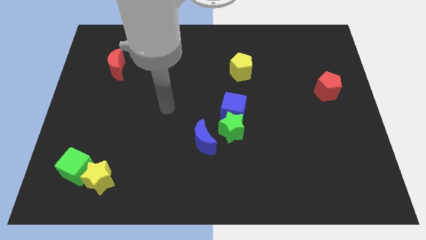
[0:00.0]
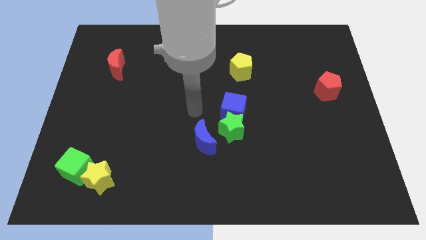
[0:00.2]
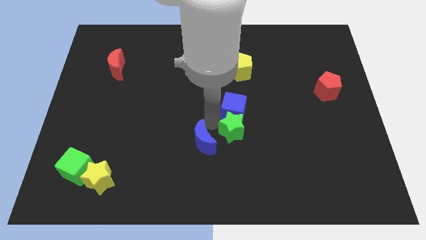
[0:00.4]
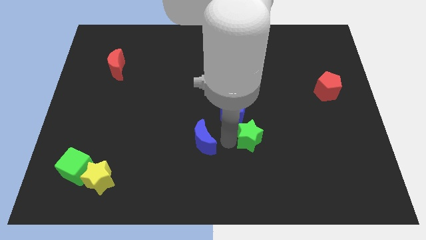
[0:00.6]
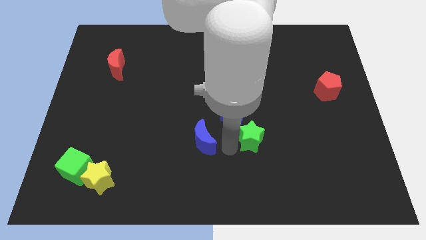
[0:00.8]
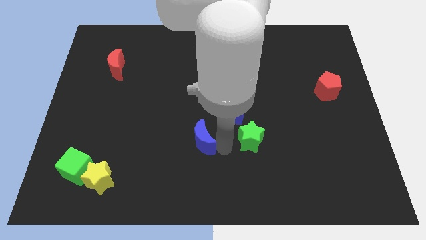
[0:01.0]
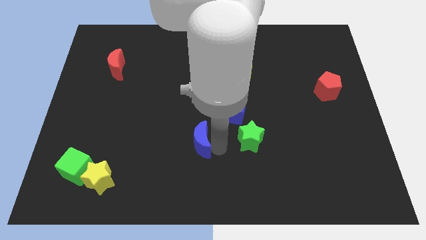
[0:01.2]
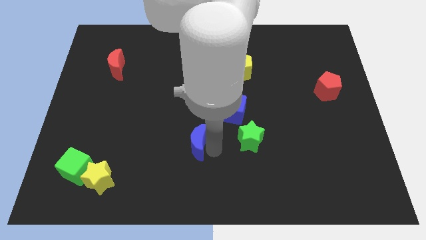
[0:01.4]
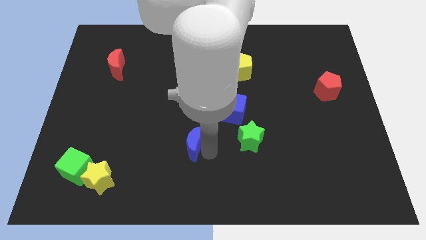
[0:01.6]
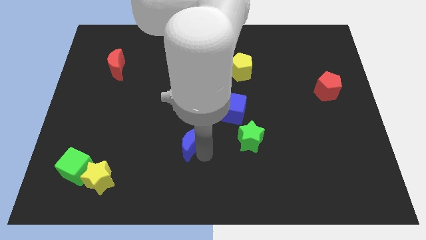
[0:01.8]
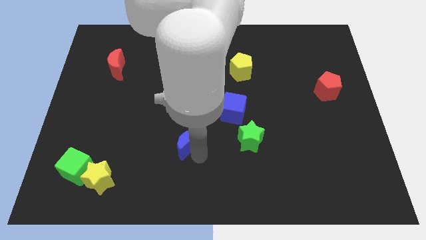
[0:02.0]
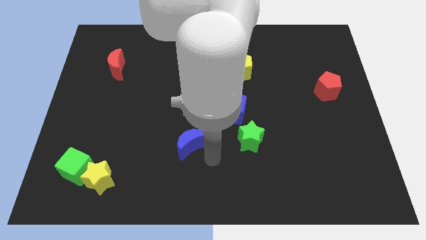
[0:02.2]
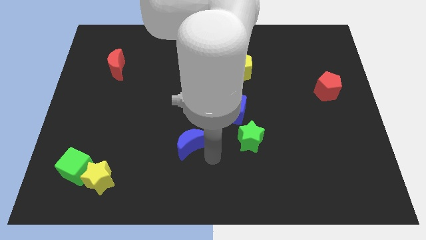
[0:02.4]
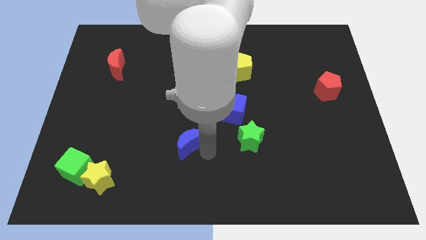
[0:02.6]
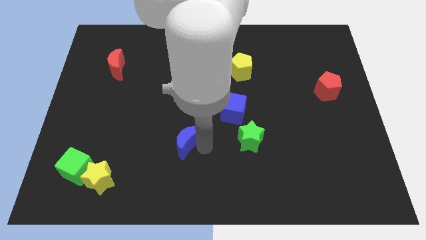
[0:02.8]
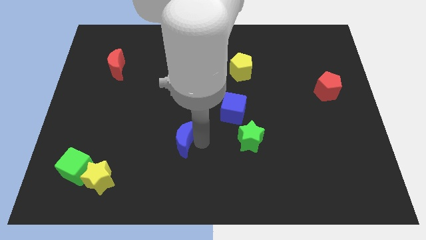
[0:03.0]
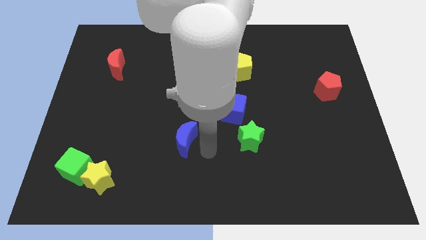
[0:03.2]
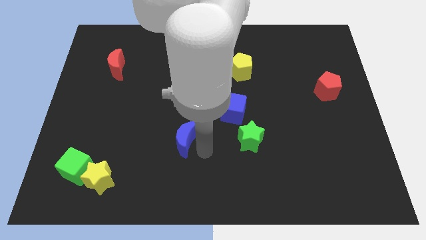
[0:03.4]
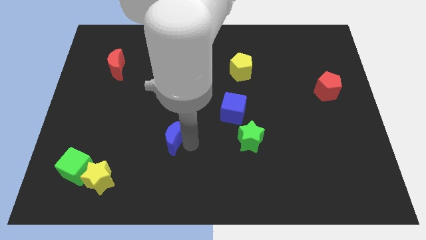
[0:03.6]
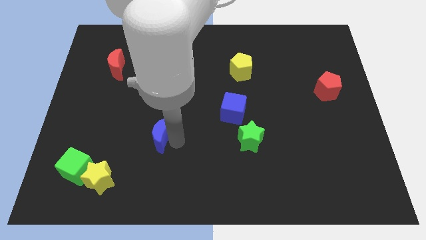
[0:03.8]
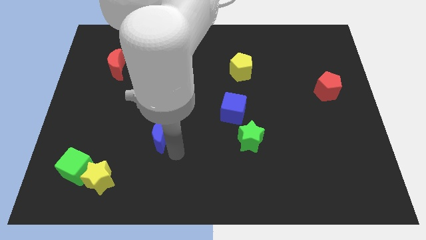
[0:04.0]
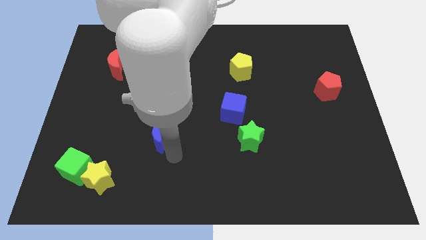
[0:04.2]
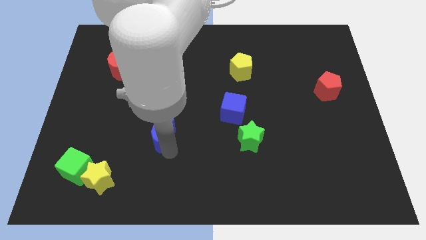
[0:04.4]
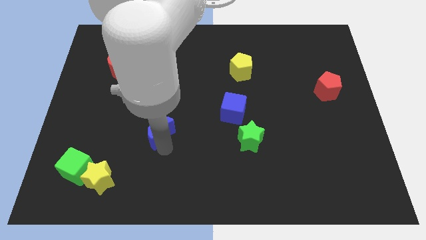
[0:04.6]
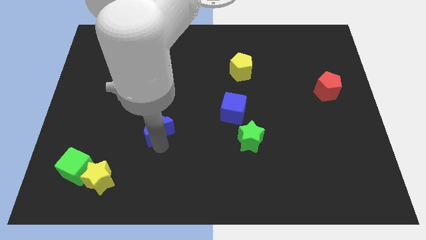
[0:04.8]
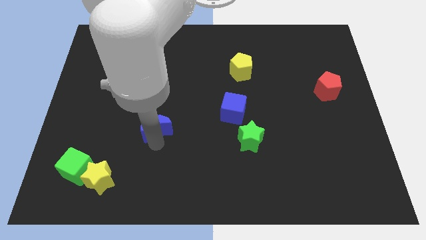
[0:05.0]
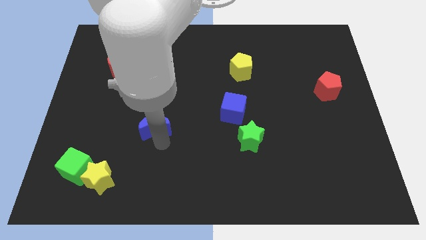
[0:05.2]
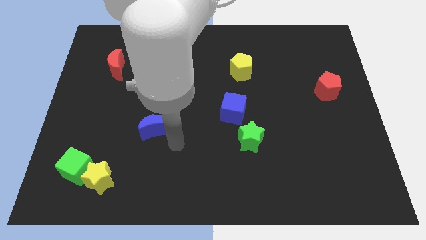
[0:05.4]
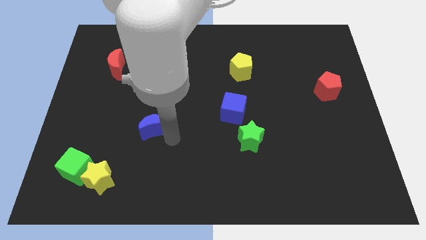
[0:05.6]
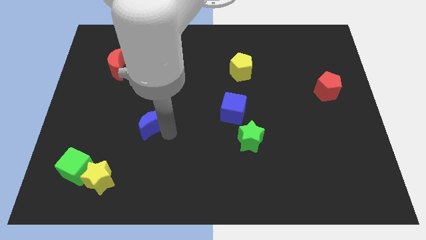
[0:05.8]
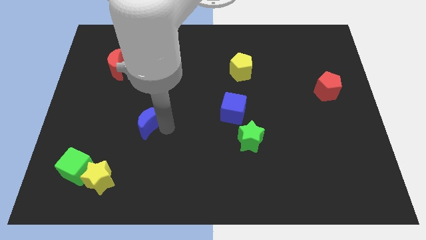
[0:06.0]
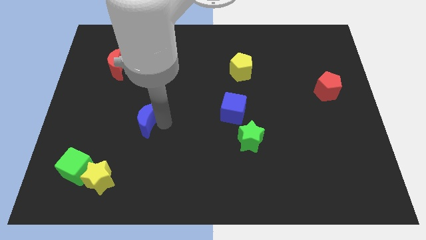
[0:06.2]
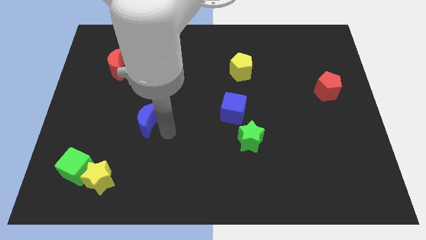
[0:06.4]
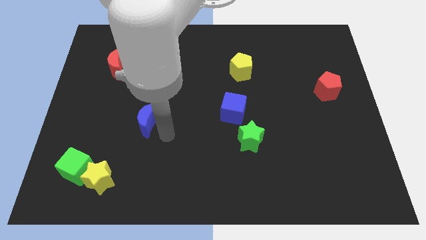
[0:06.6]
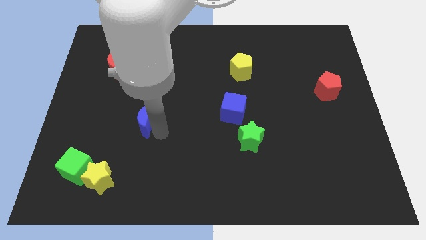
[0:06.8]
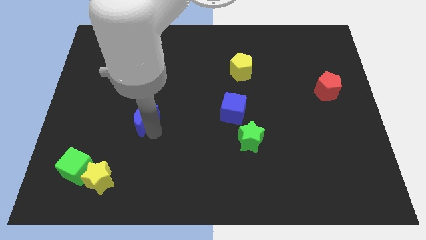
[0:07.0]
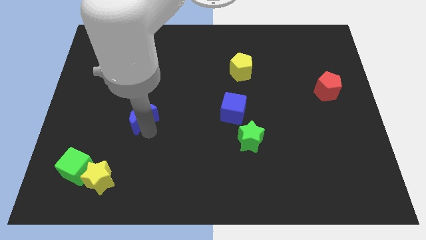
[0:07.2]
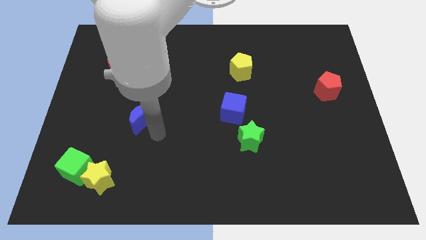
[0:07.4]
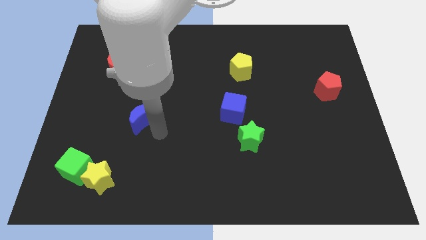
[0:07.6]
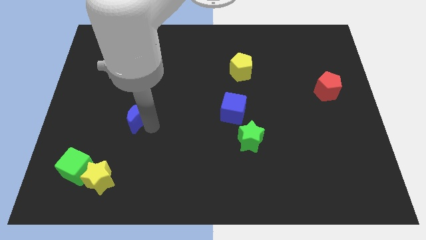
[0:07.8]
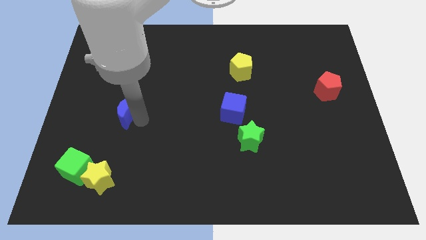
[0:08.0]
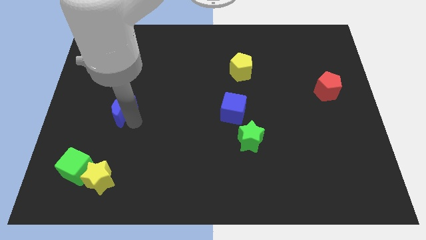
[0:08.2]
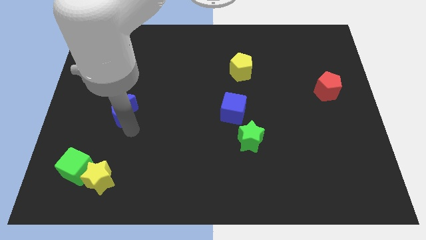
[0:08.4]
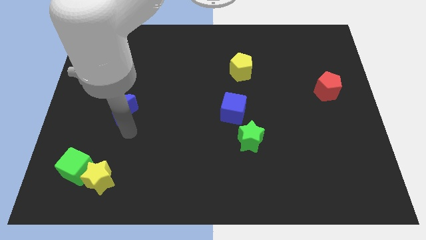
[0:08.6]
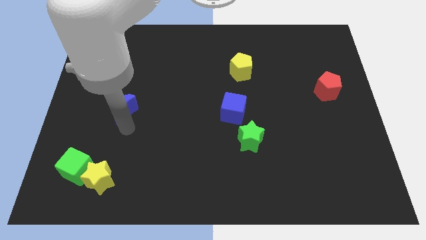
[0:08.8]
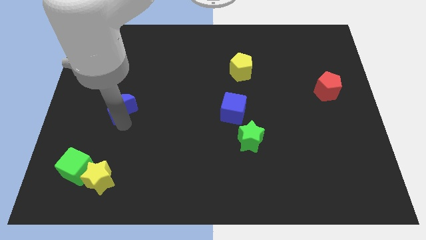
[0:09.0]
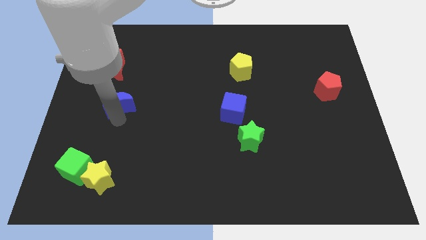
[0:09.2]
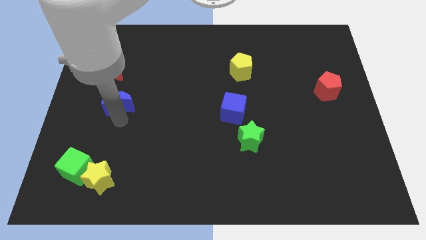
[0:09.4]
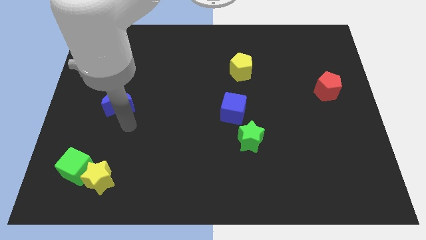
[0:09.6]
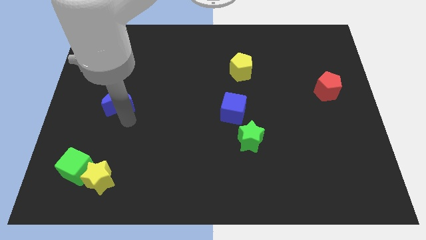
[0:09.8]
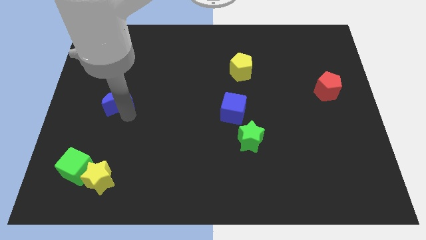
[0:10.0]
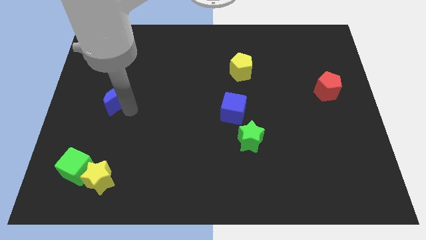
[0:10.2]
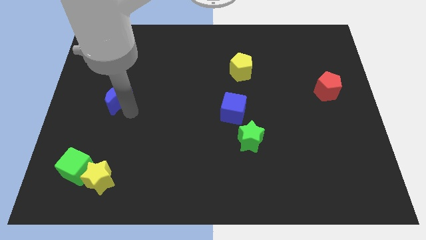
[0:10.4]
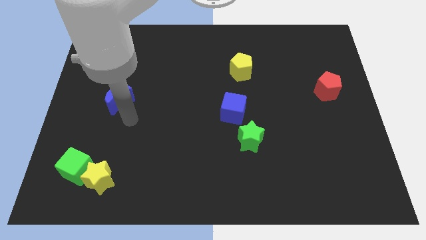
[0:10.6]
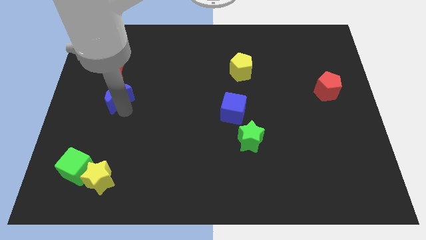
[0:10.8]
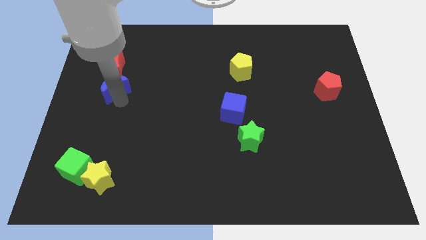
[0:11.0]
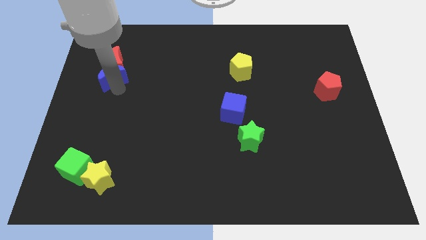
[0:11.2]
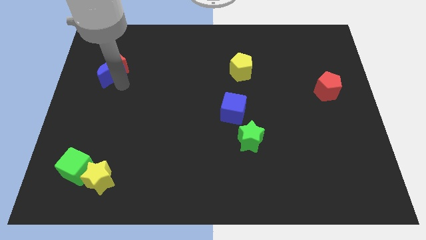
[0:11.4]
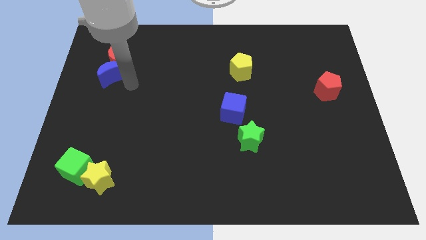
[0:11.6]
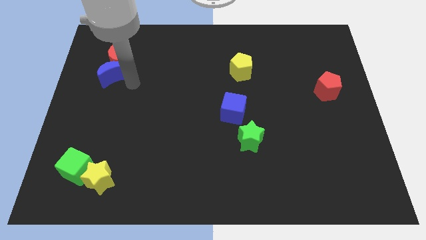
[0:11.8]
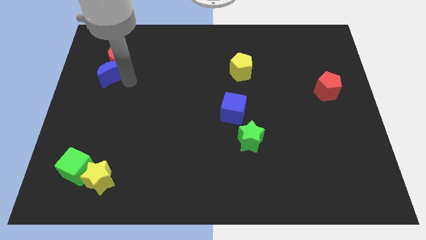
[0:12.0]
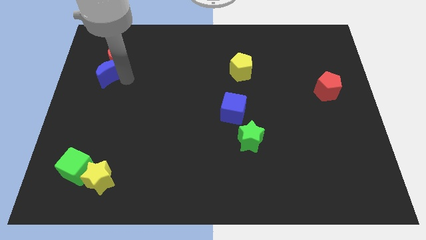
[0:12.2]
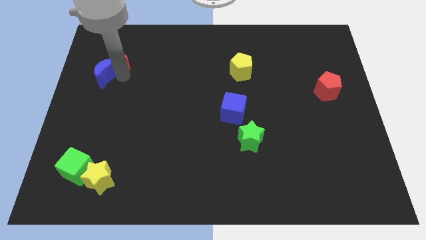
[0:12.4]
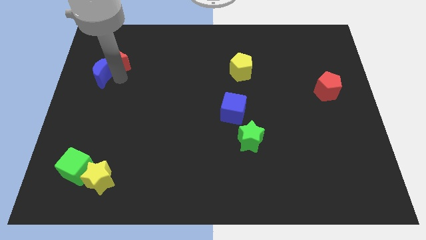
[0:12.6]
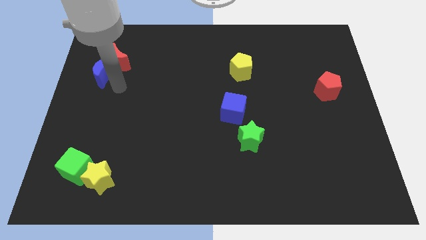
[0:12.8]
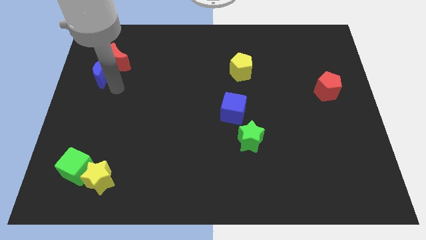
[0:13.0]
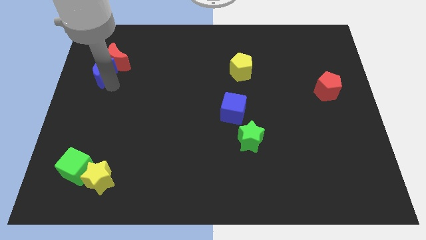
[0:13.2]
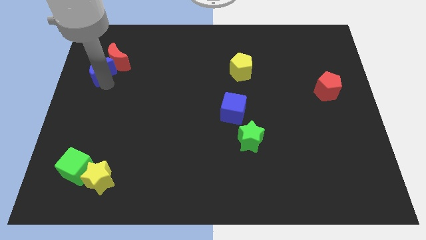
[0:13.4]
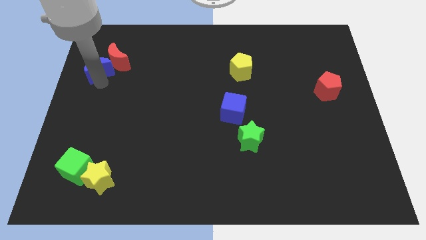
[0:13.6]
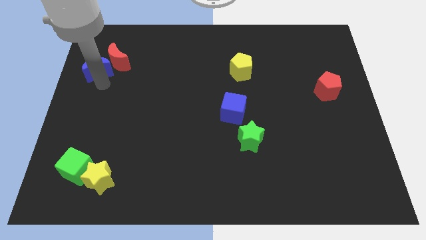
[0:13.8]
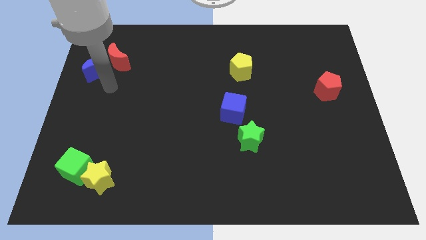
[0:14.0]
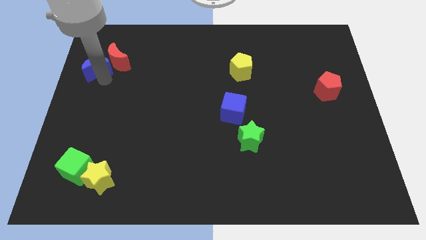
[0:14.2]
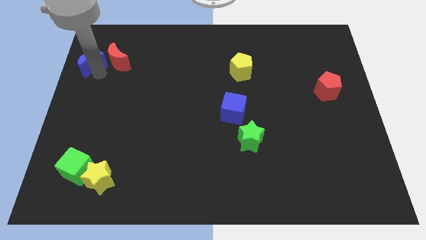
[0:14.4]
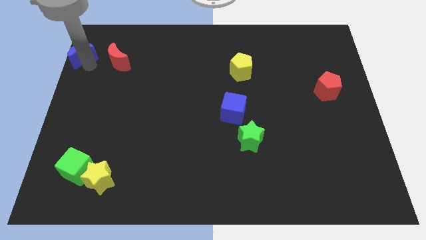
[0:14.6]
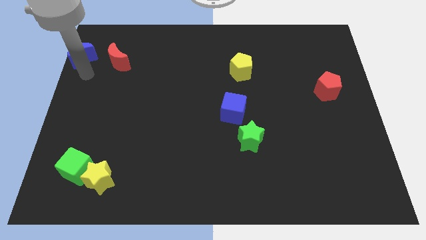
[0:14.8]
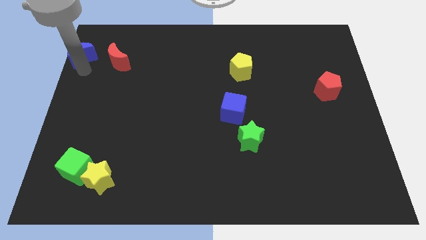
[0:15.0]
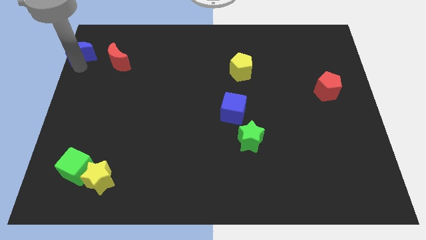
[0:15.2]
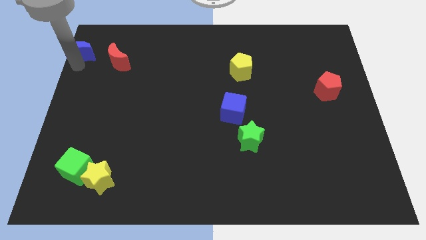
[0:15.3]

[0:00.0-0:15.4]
move the blue moon to the top left of the board
